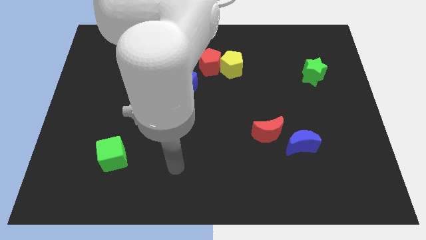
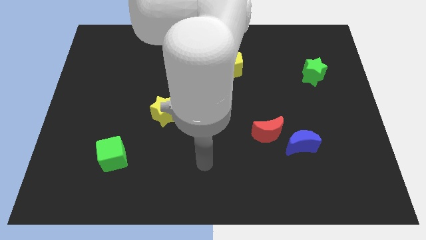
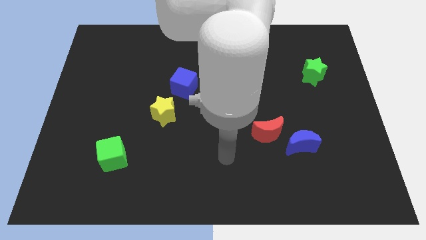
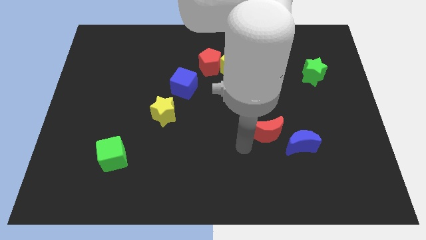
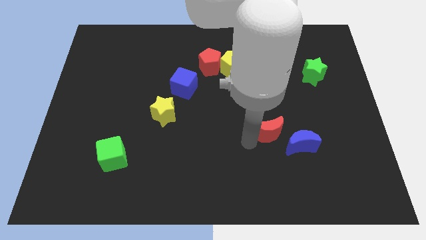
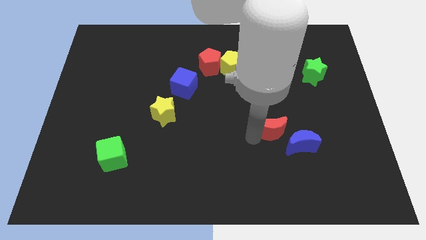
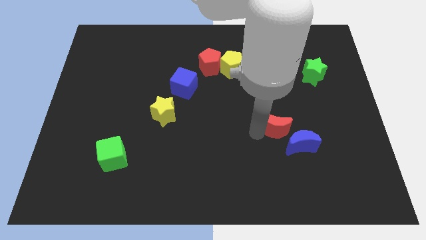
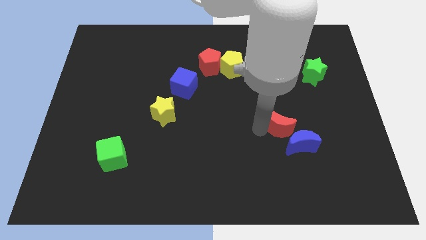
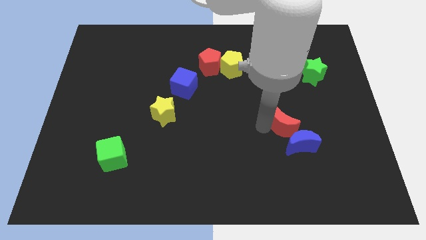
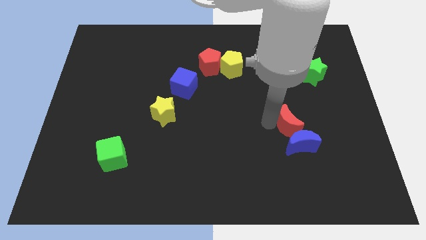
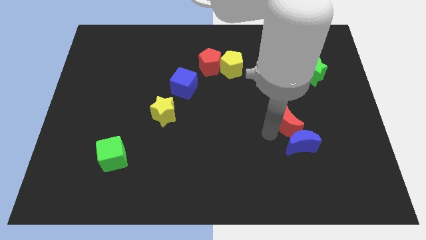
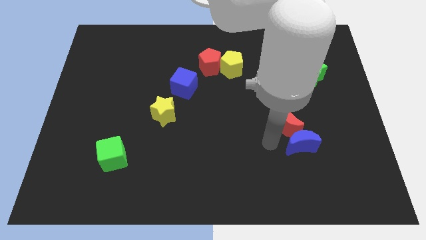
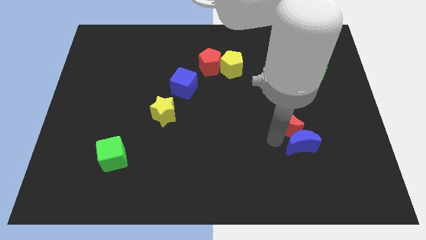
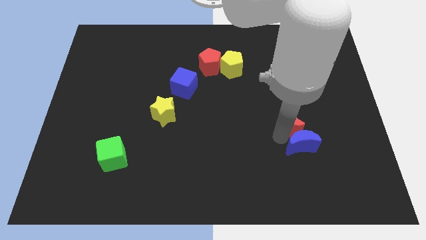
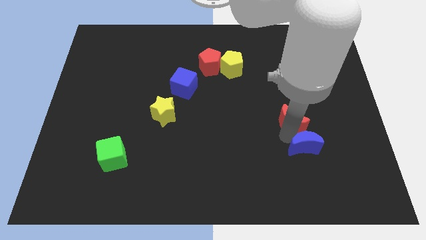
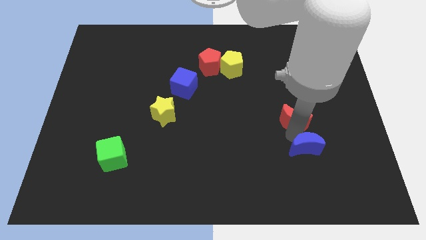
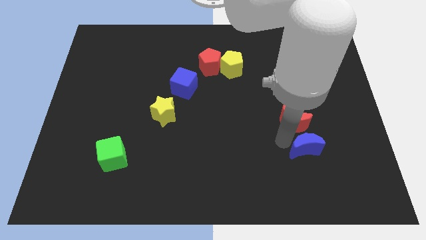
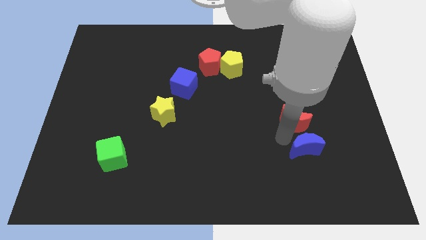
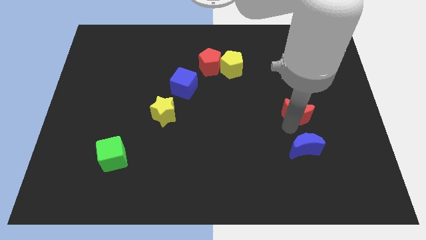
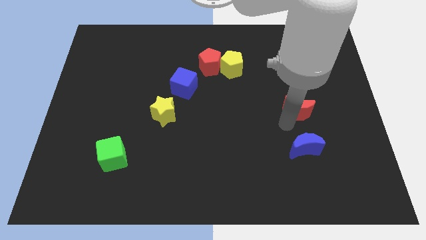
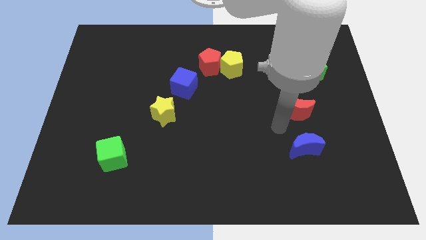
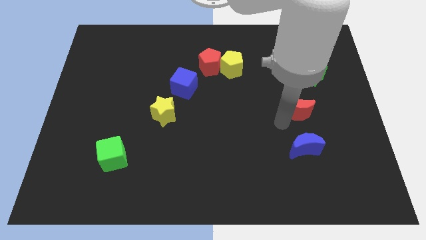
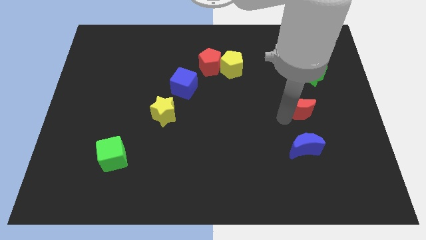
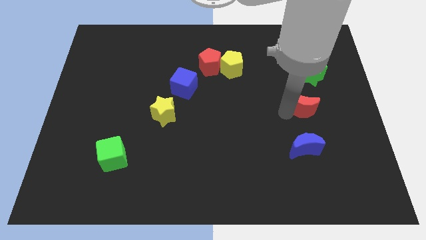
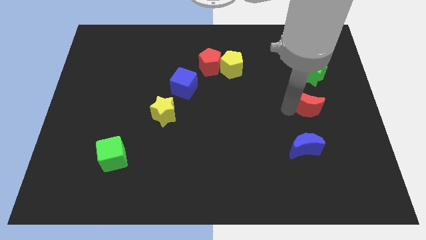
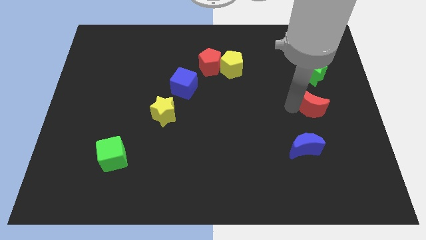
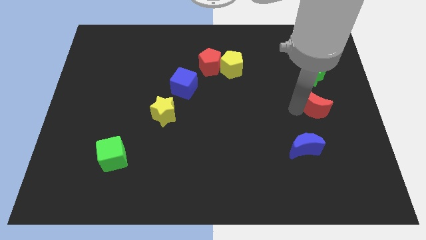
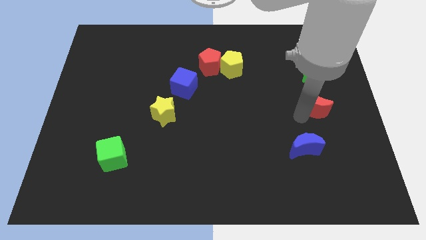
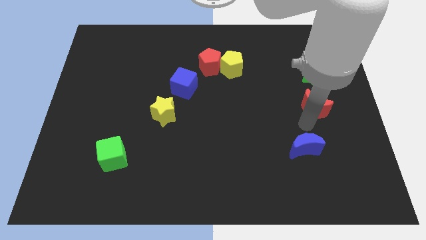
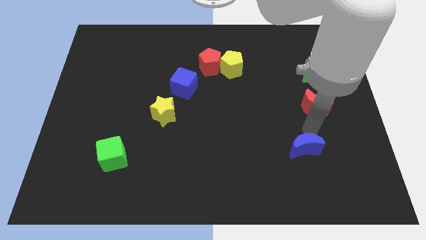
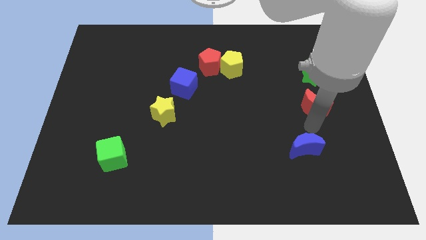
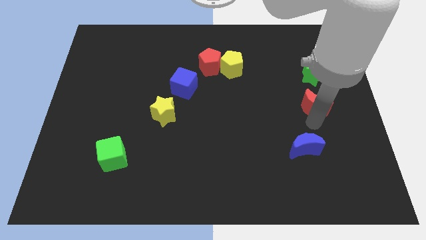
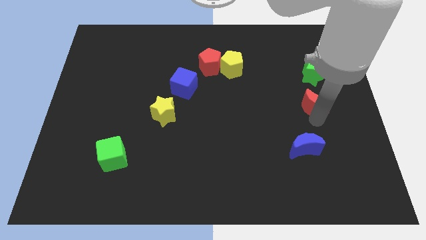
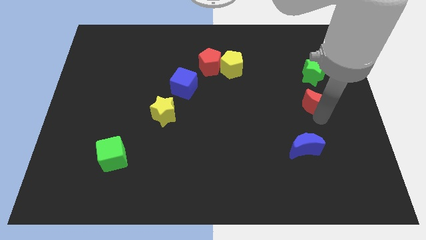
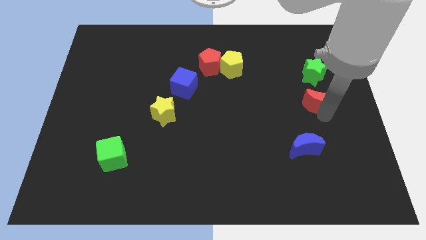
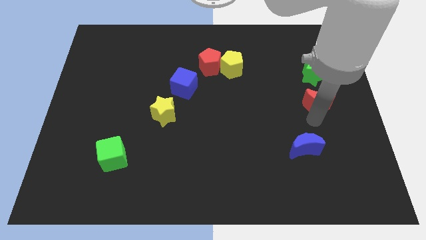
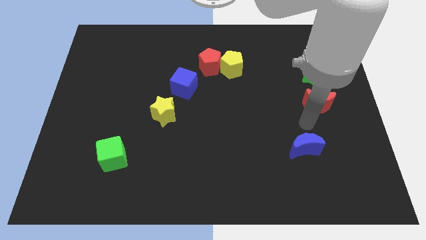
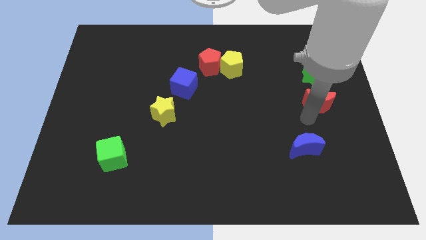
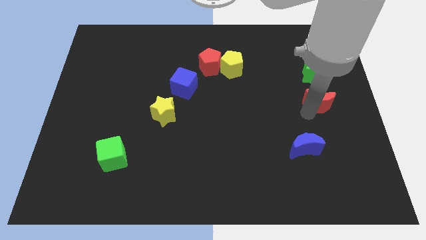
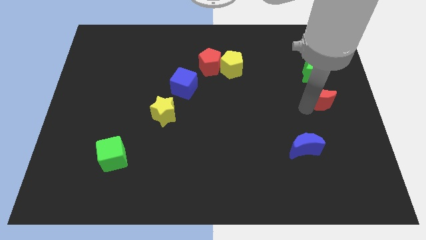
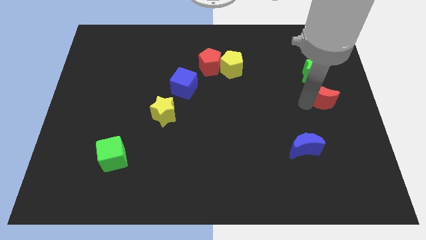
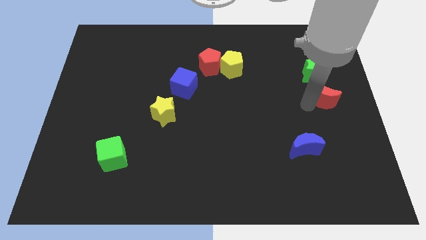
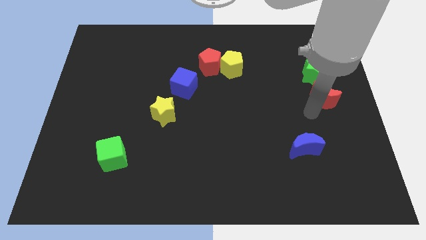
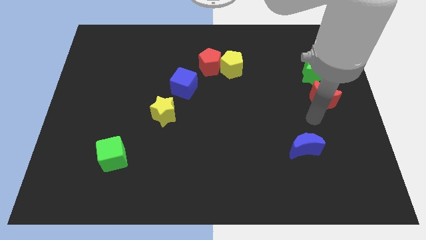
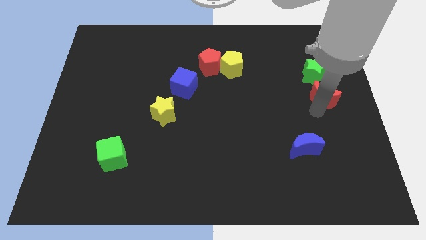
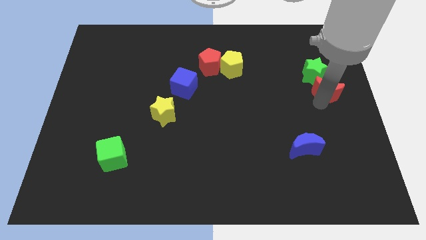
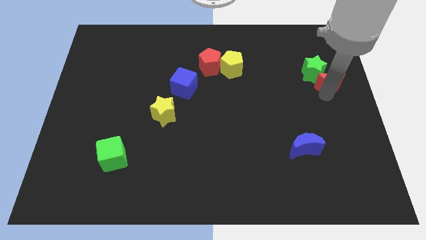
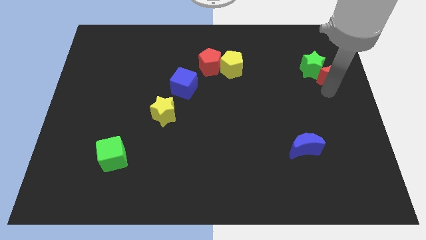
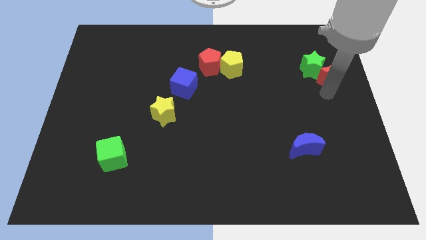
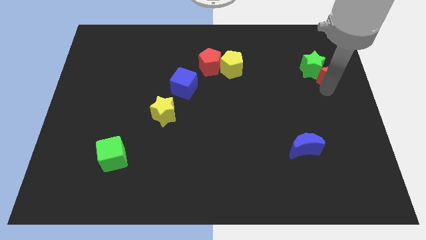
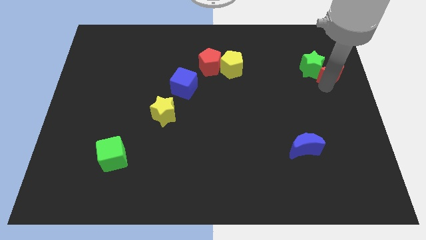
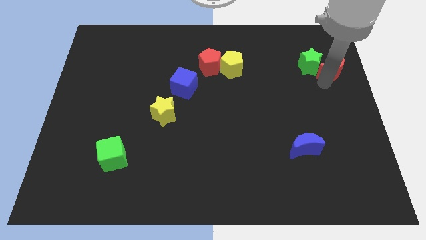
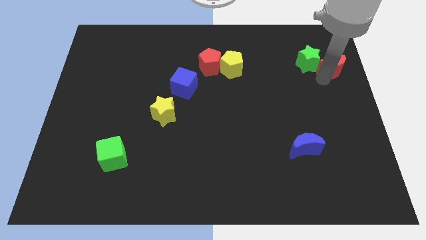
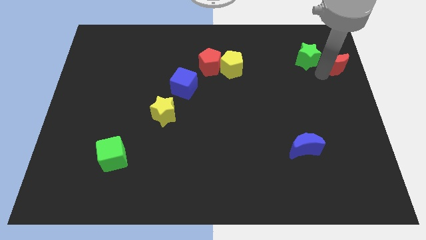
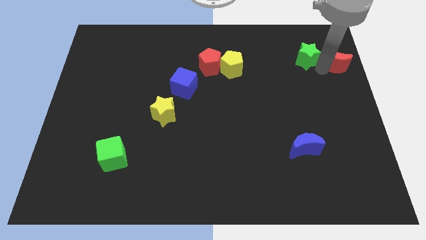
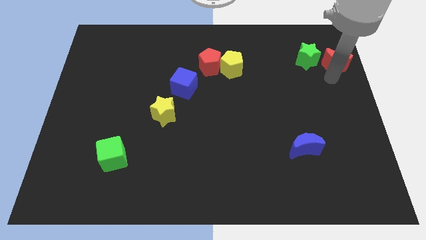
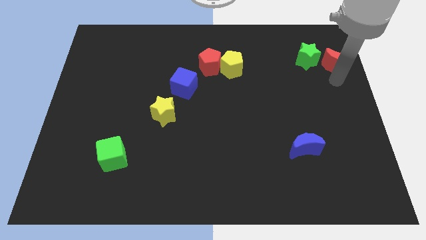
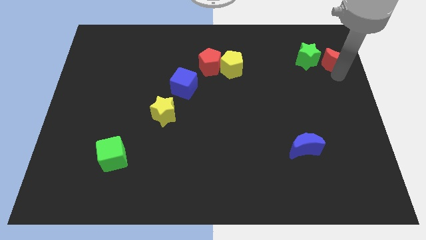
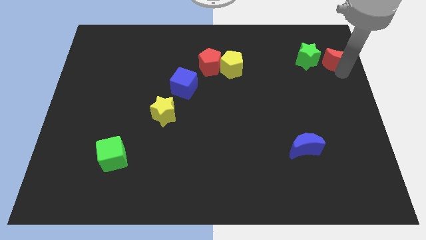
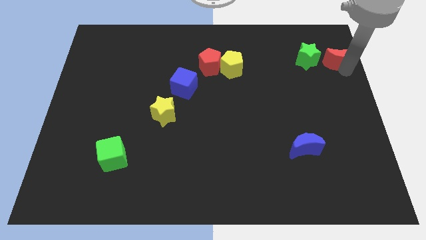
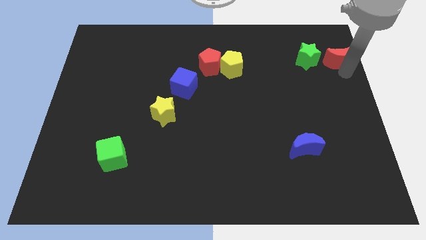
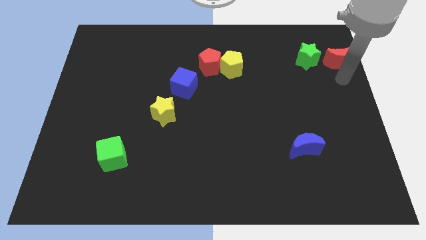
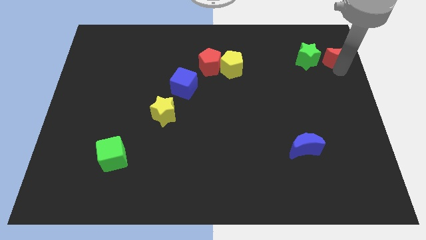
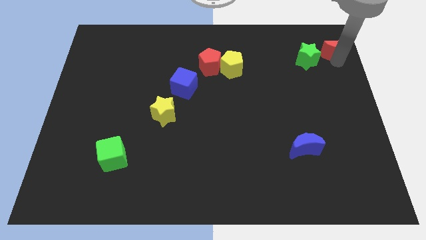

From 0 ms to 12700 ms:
move the red moon to the top right corner
